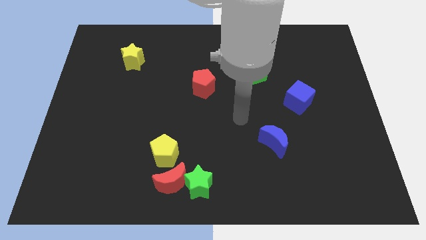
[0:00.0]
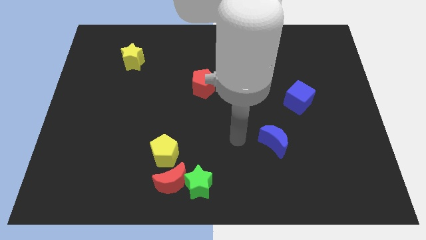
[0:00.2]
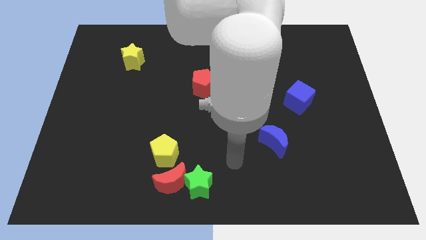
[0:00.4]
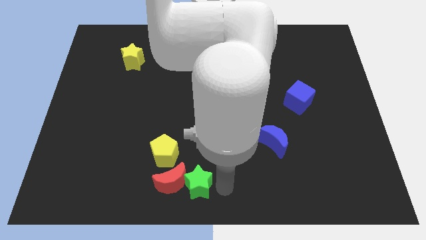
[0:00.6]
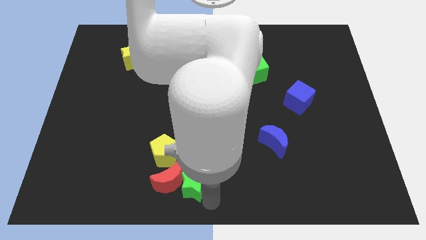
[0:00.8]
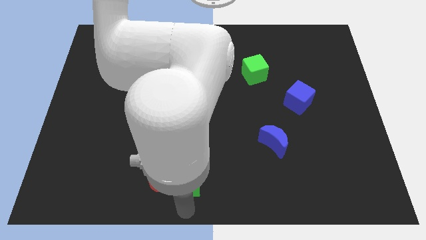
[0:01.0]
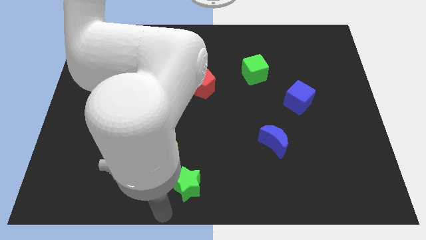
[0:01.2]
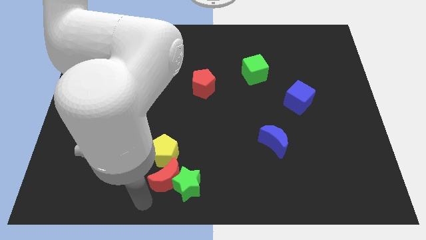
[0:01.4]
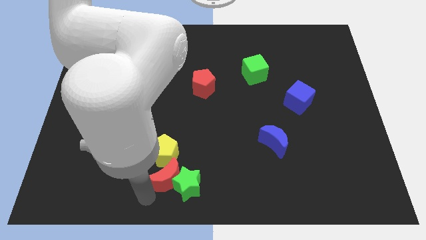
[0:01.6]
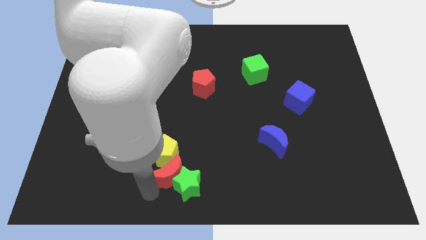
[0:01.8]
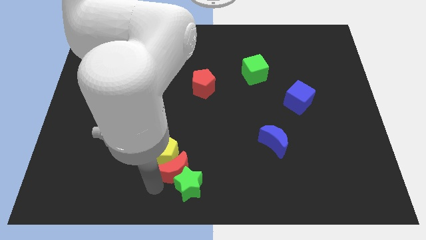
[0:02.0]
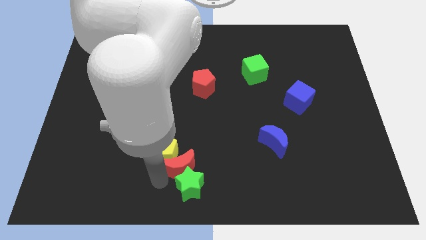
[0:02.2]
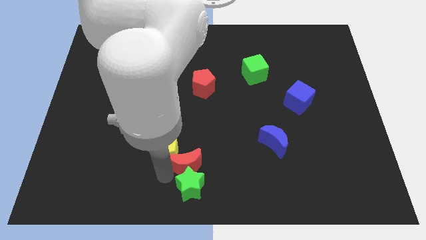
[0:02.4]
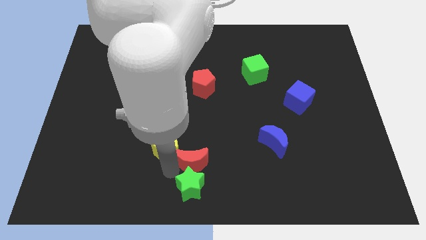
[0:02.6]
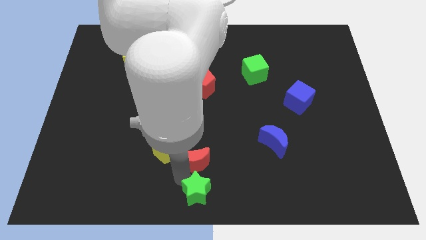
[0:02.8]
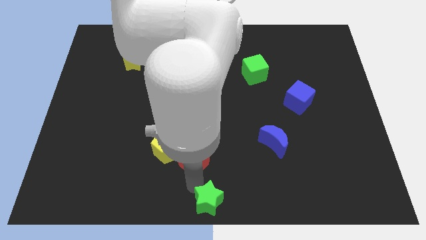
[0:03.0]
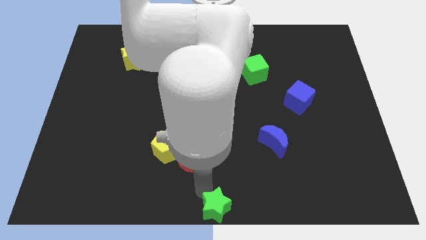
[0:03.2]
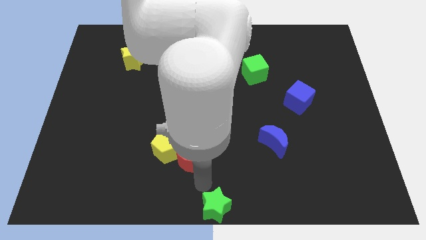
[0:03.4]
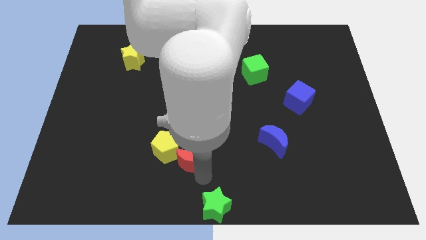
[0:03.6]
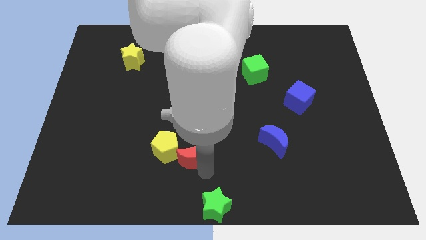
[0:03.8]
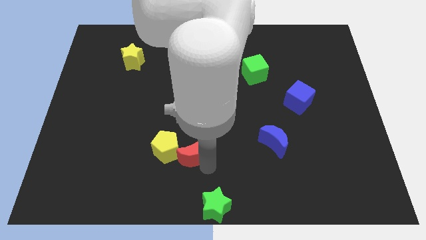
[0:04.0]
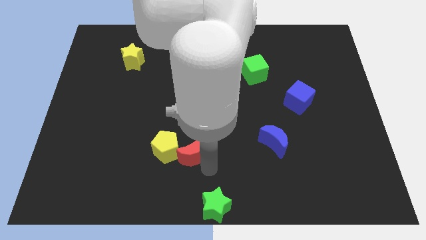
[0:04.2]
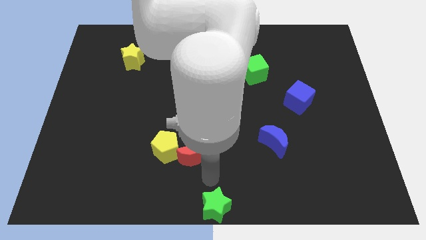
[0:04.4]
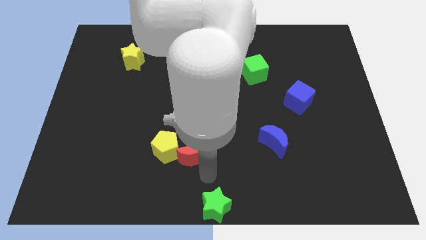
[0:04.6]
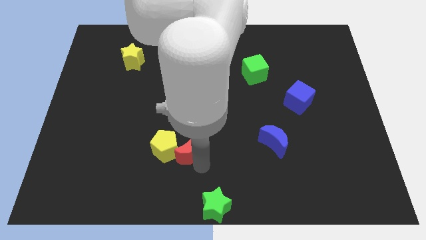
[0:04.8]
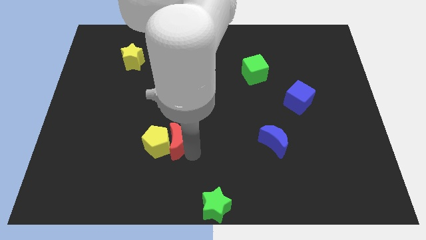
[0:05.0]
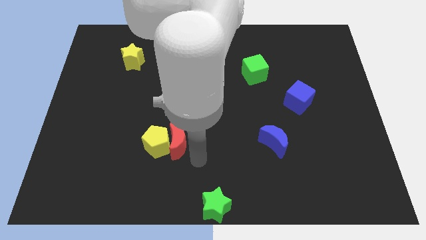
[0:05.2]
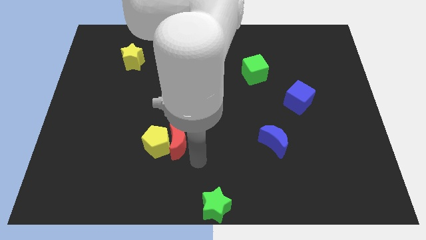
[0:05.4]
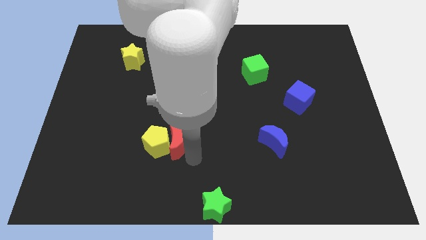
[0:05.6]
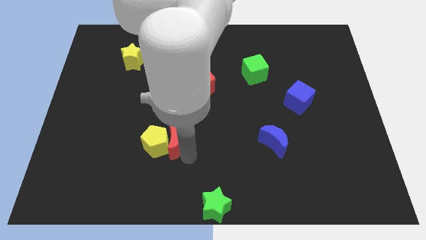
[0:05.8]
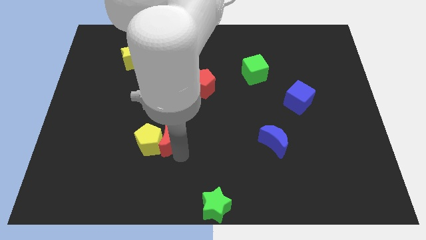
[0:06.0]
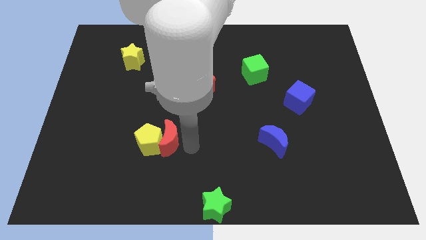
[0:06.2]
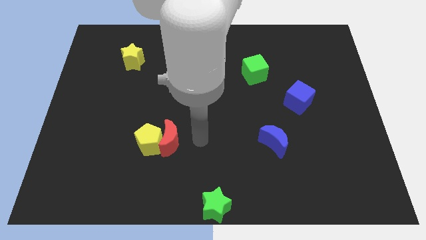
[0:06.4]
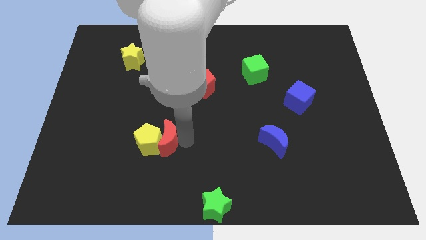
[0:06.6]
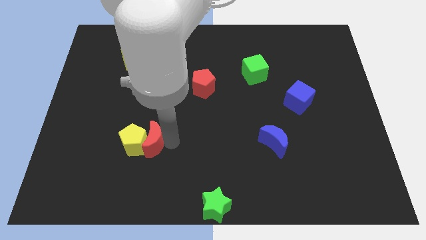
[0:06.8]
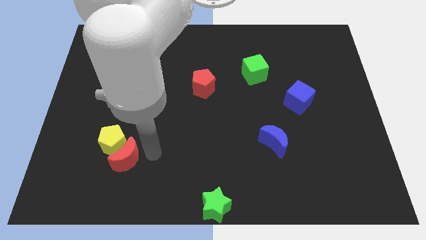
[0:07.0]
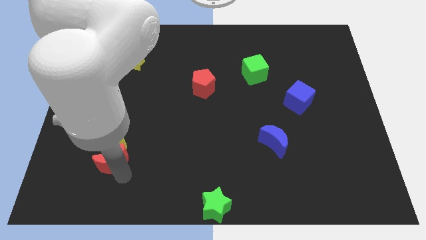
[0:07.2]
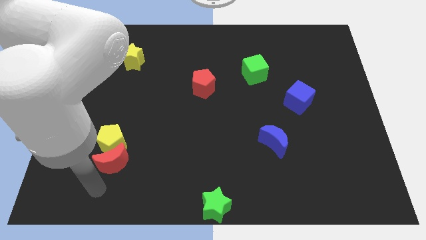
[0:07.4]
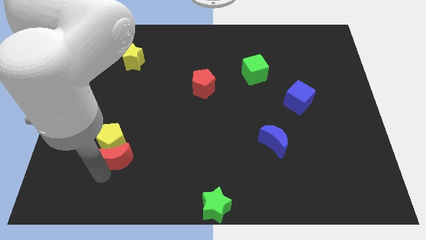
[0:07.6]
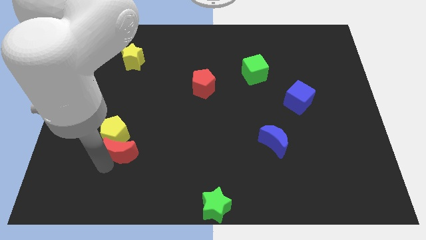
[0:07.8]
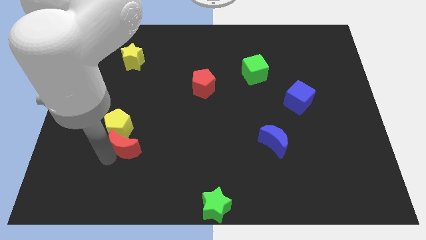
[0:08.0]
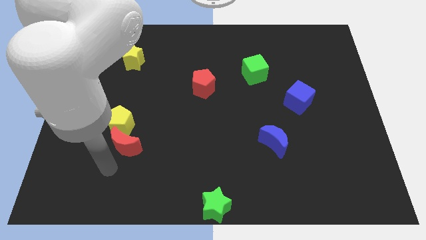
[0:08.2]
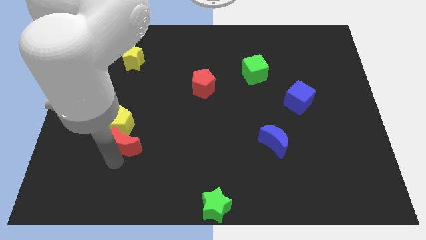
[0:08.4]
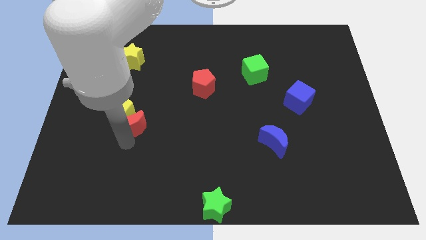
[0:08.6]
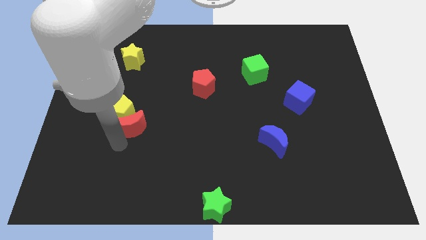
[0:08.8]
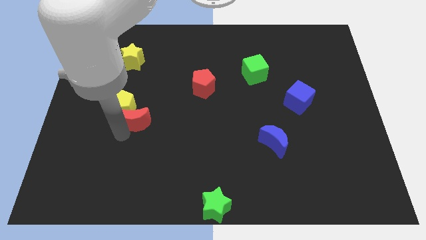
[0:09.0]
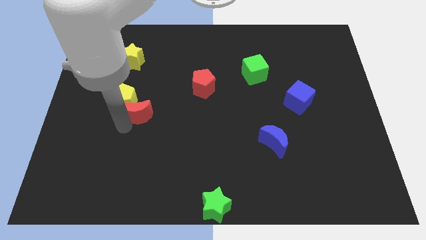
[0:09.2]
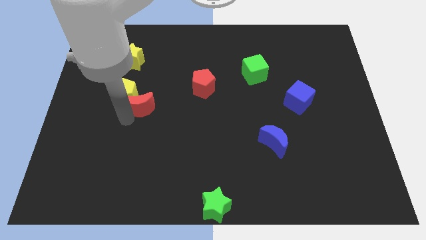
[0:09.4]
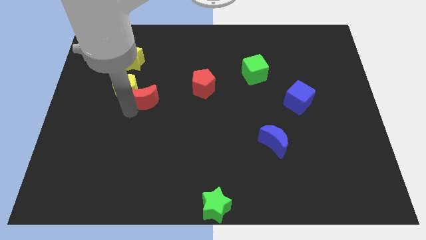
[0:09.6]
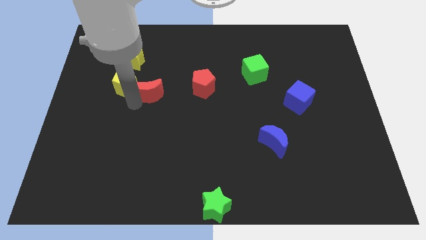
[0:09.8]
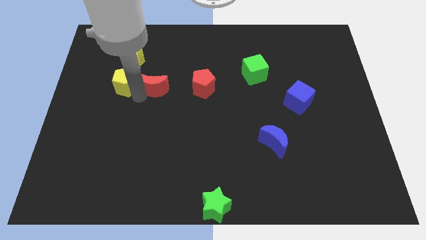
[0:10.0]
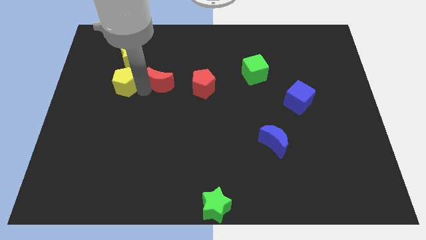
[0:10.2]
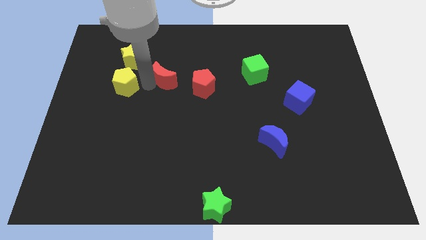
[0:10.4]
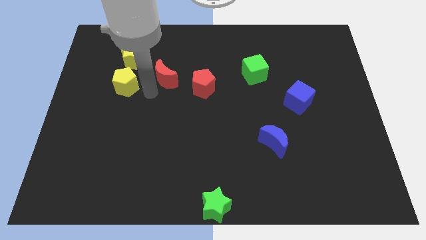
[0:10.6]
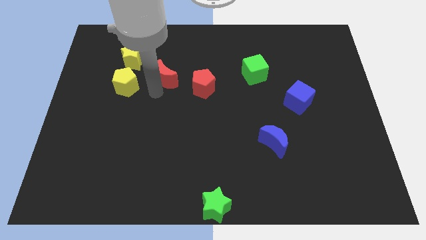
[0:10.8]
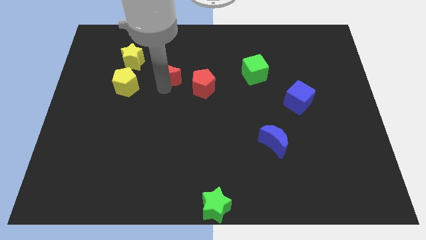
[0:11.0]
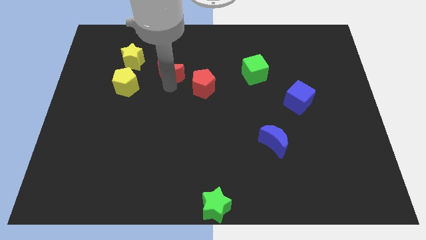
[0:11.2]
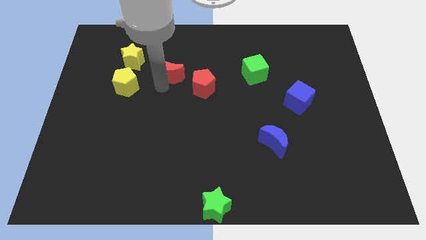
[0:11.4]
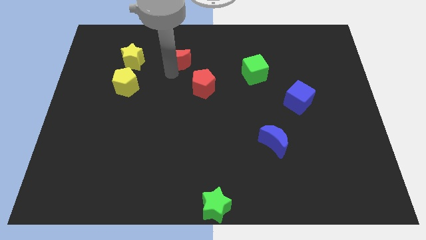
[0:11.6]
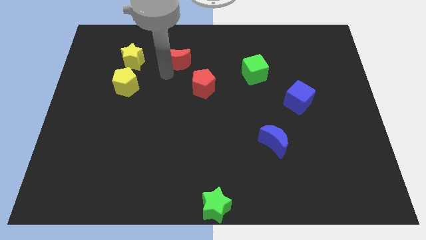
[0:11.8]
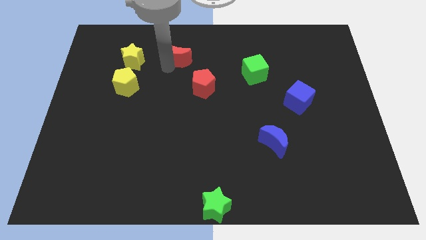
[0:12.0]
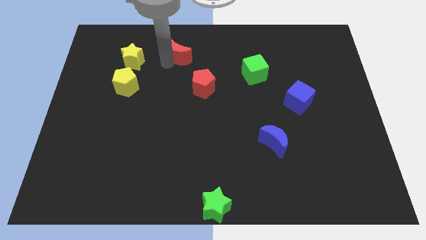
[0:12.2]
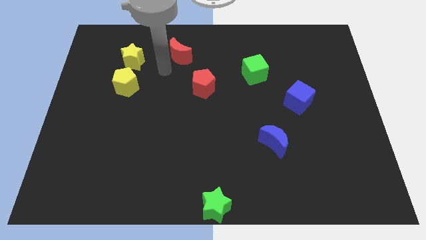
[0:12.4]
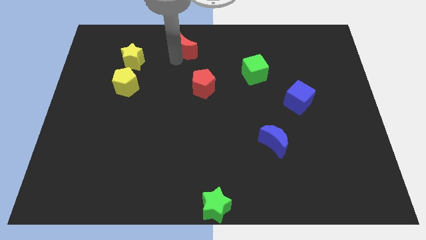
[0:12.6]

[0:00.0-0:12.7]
slide the red moon to the top

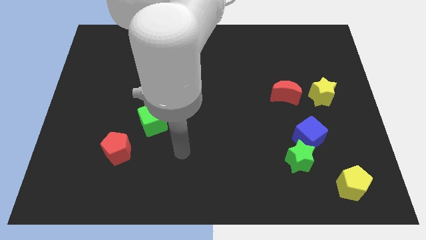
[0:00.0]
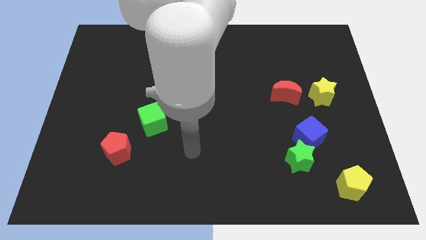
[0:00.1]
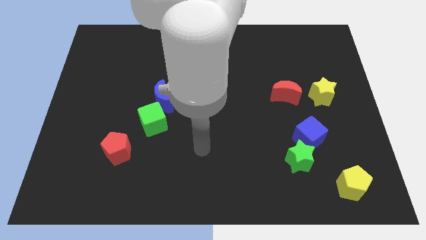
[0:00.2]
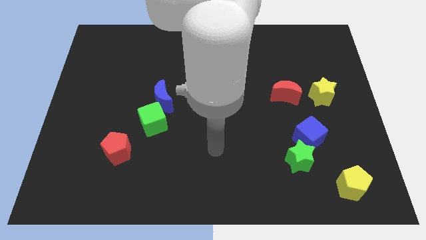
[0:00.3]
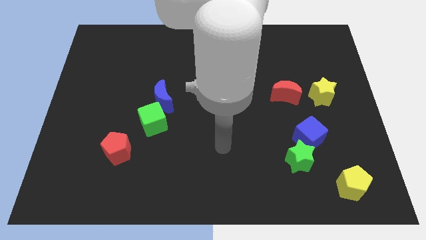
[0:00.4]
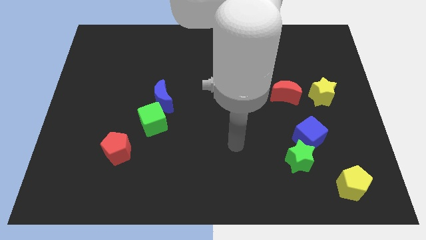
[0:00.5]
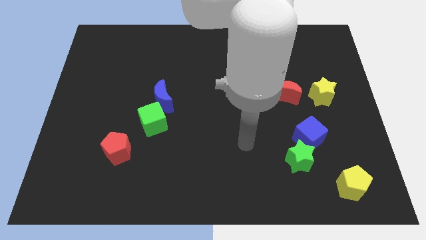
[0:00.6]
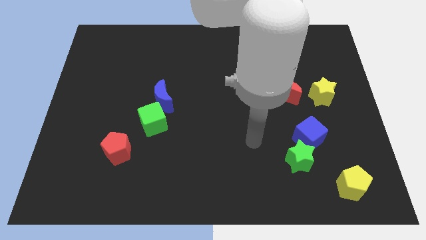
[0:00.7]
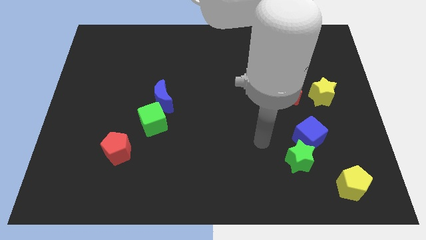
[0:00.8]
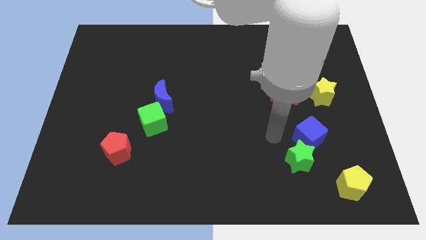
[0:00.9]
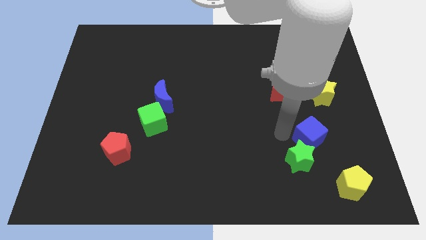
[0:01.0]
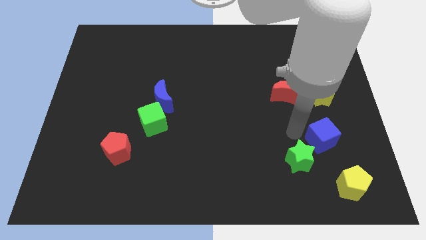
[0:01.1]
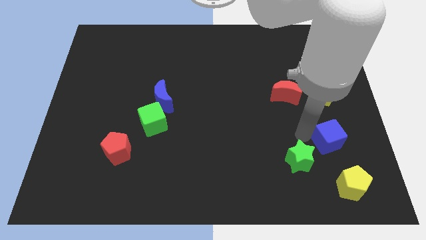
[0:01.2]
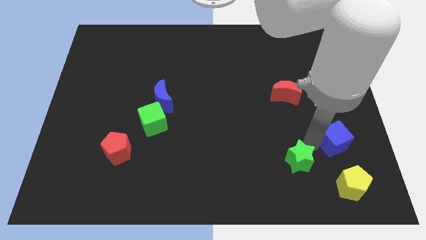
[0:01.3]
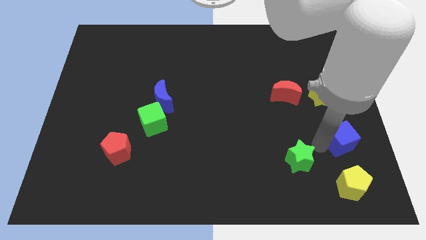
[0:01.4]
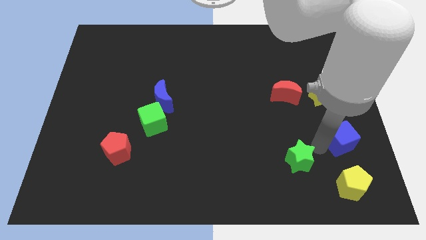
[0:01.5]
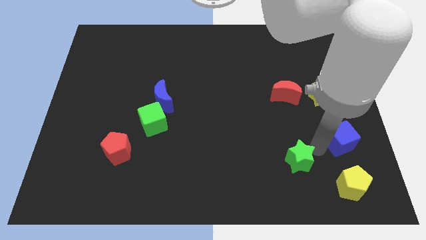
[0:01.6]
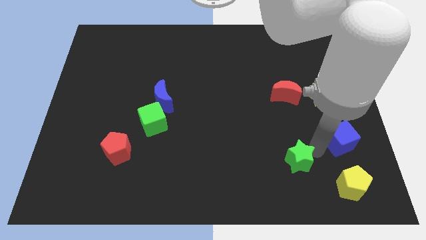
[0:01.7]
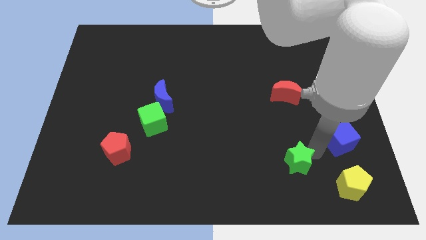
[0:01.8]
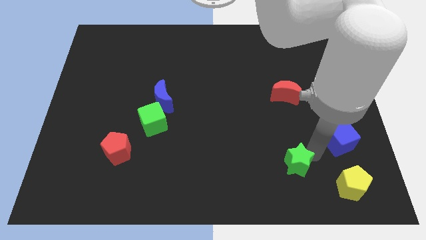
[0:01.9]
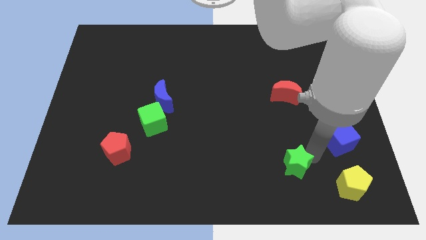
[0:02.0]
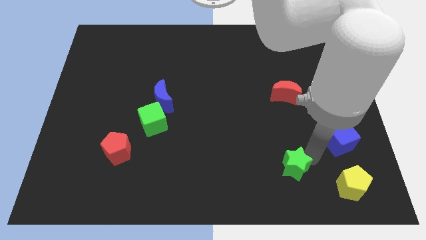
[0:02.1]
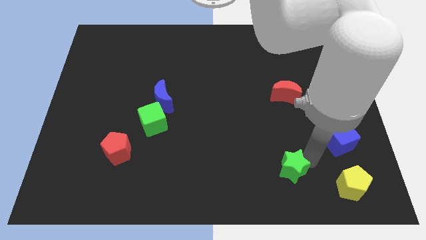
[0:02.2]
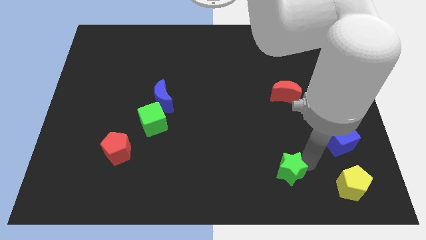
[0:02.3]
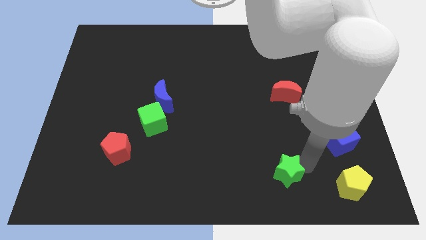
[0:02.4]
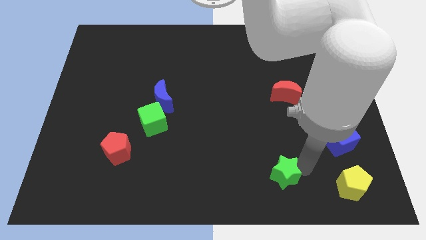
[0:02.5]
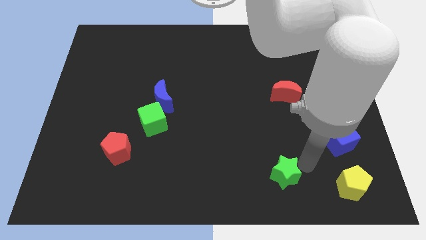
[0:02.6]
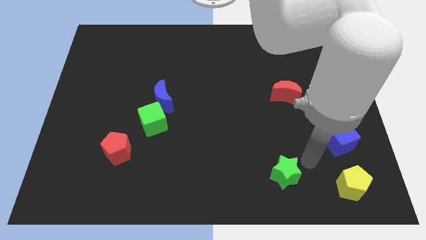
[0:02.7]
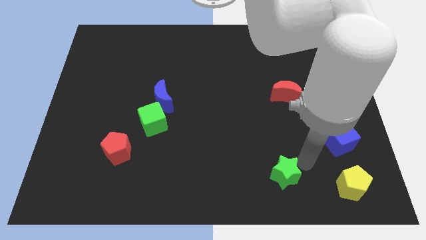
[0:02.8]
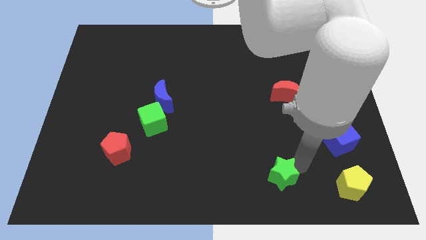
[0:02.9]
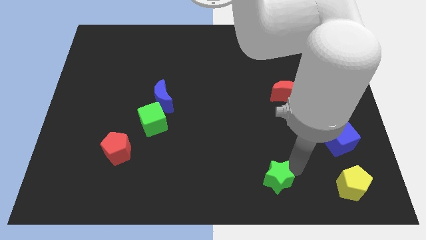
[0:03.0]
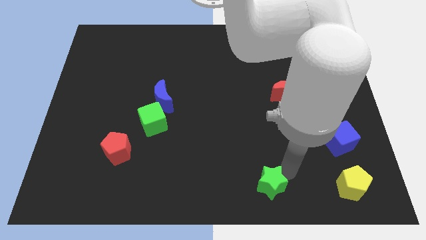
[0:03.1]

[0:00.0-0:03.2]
slide the green star to the bottom
